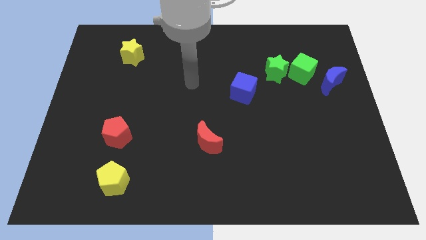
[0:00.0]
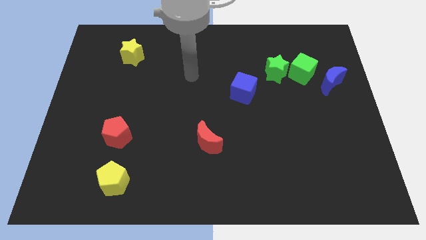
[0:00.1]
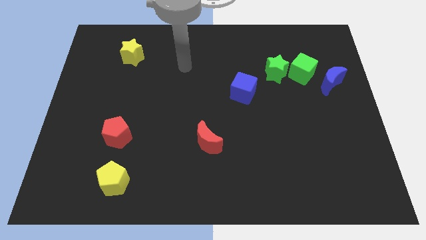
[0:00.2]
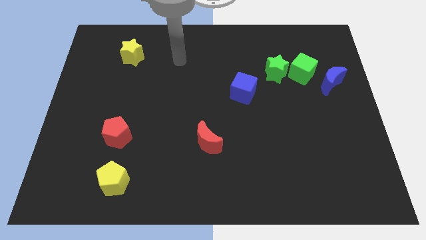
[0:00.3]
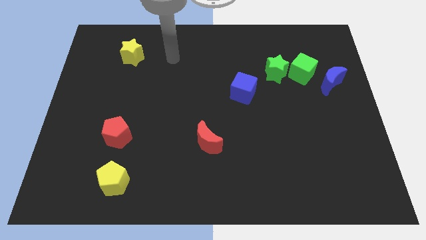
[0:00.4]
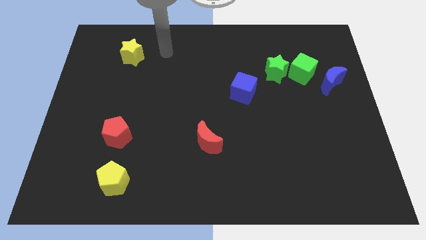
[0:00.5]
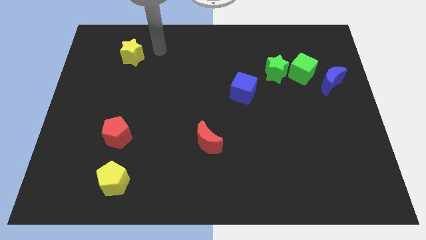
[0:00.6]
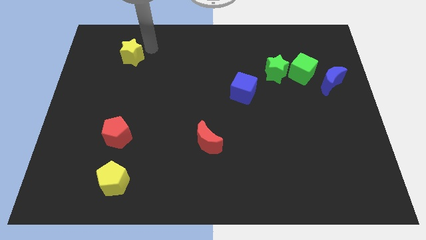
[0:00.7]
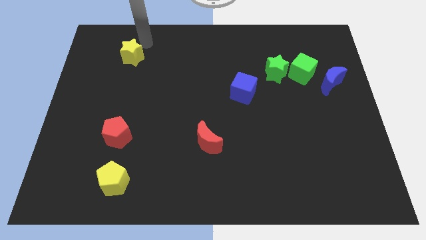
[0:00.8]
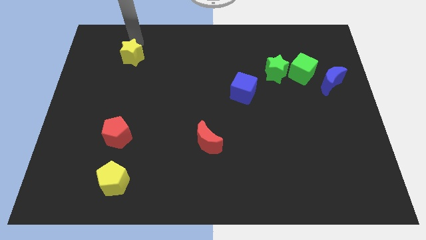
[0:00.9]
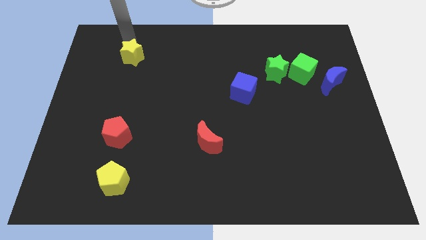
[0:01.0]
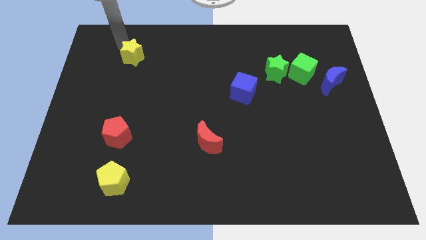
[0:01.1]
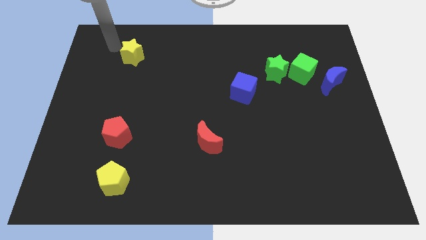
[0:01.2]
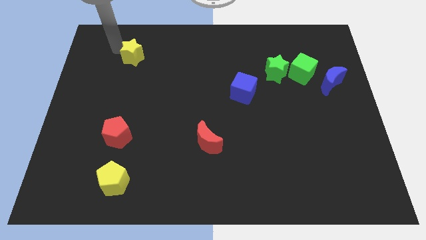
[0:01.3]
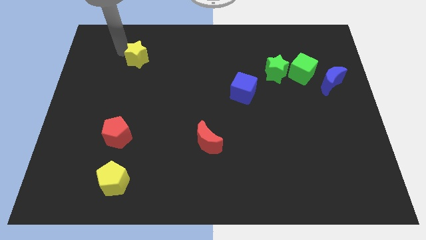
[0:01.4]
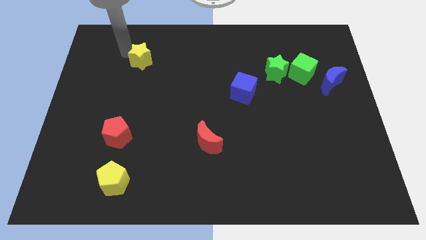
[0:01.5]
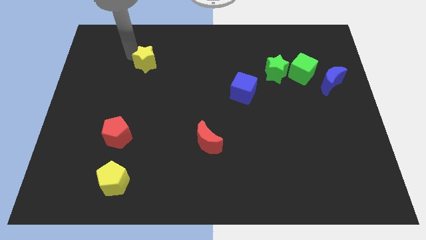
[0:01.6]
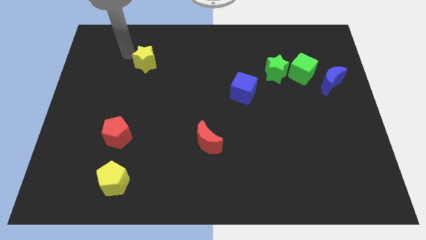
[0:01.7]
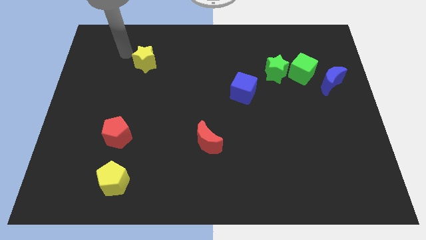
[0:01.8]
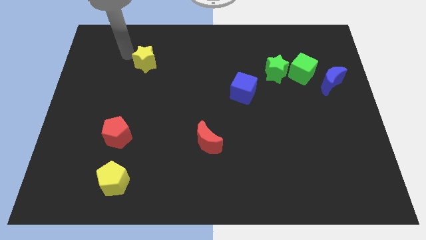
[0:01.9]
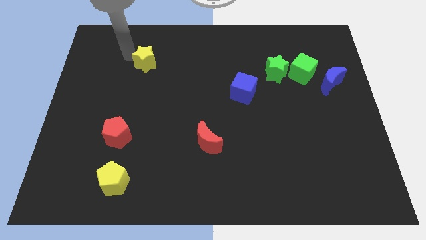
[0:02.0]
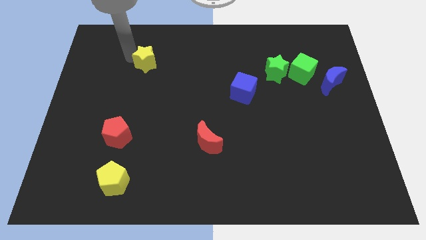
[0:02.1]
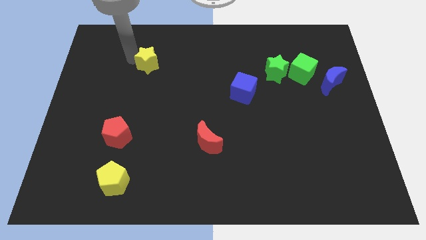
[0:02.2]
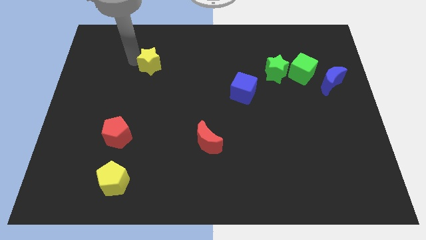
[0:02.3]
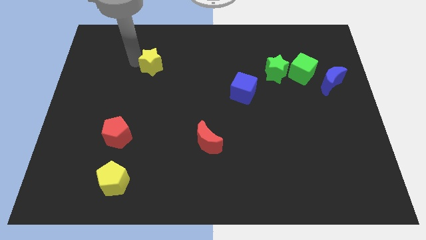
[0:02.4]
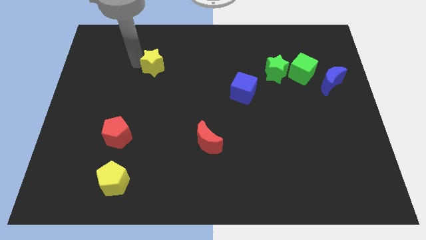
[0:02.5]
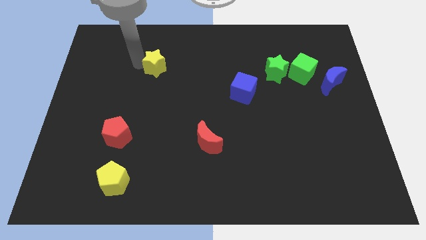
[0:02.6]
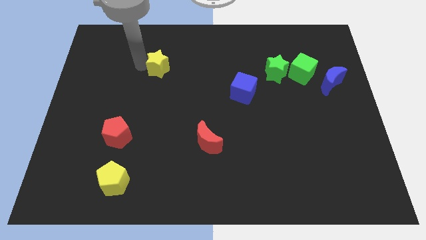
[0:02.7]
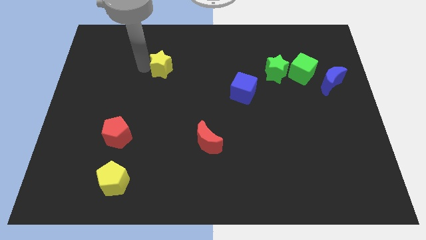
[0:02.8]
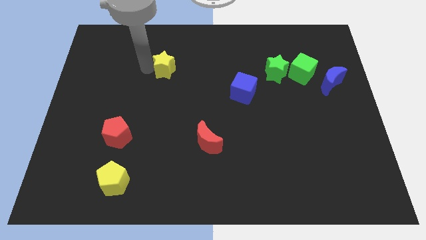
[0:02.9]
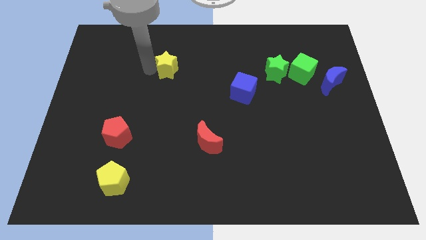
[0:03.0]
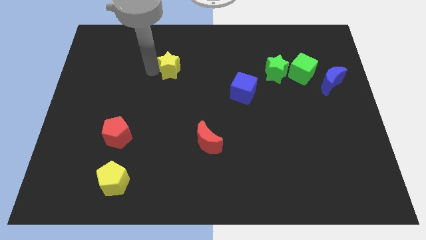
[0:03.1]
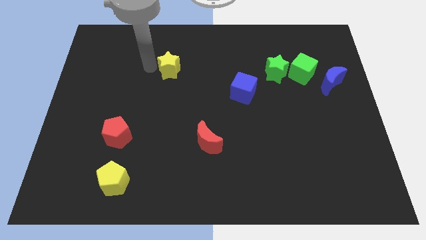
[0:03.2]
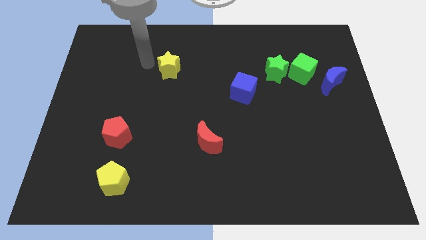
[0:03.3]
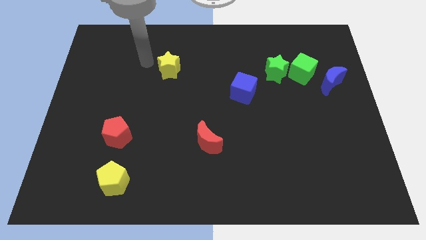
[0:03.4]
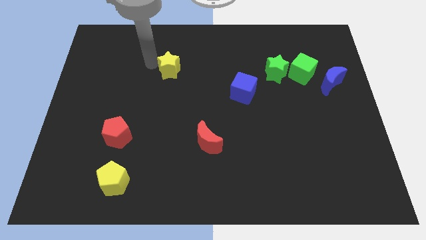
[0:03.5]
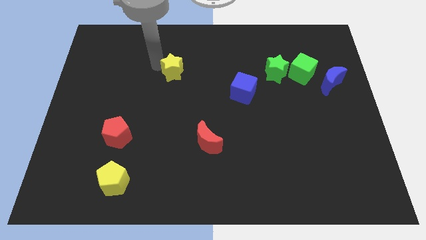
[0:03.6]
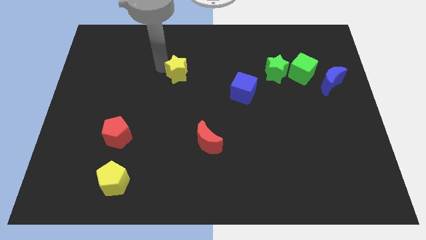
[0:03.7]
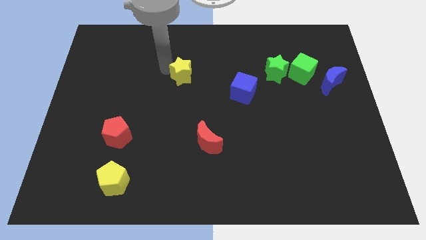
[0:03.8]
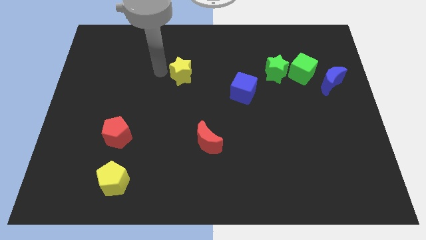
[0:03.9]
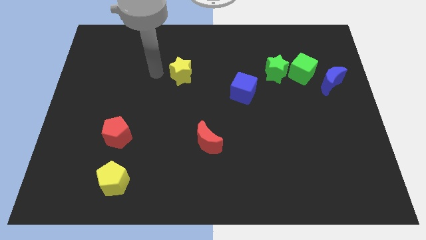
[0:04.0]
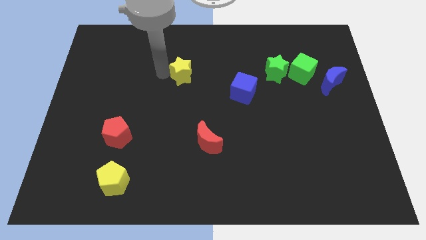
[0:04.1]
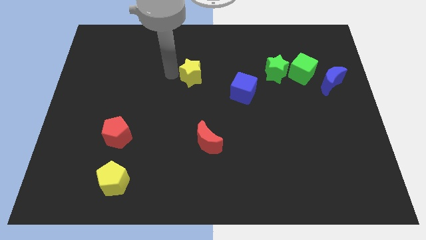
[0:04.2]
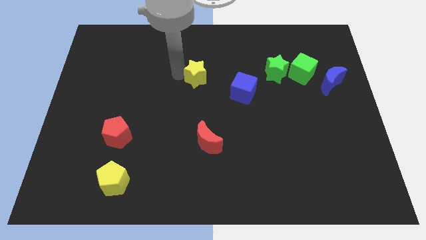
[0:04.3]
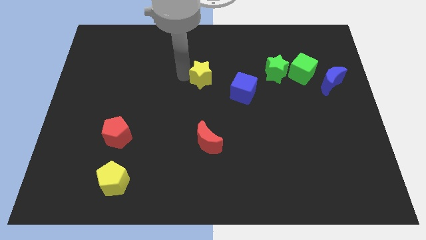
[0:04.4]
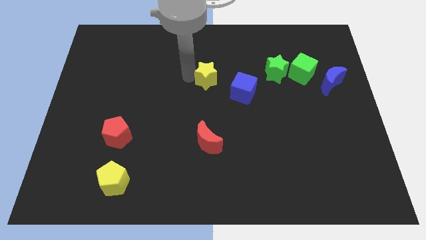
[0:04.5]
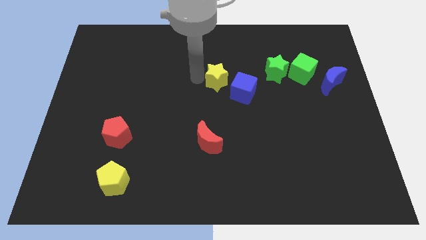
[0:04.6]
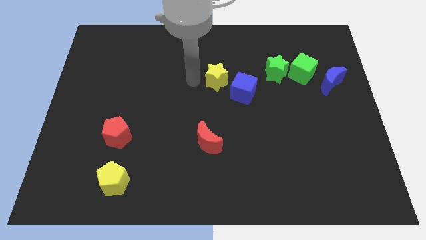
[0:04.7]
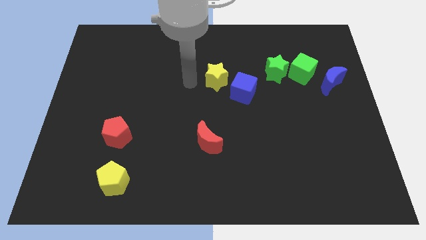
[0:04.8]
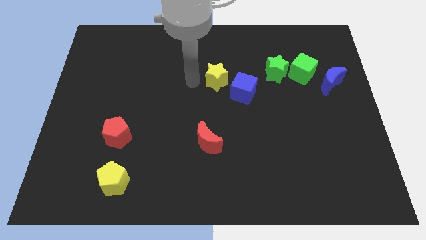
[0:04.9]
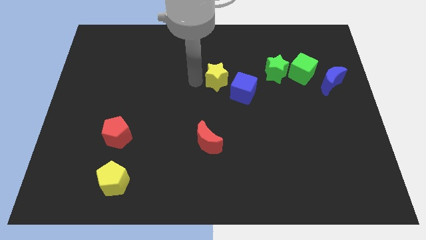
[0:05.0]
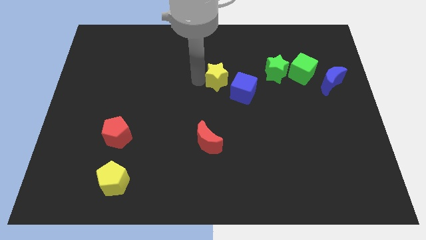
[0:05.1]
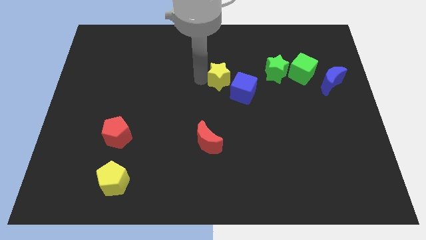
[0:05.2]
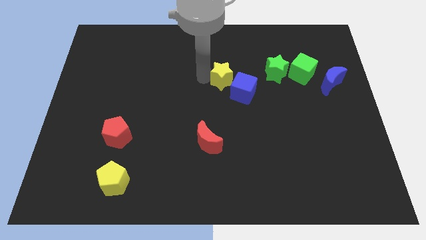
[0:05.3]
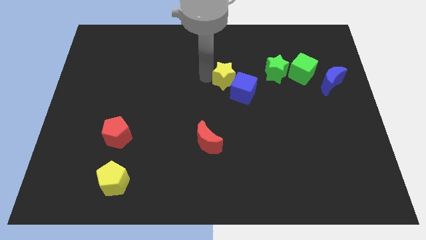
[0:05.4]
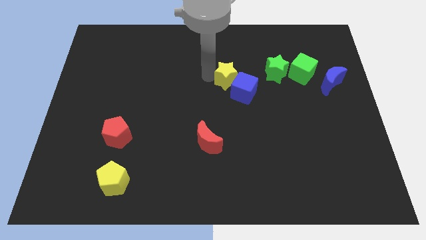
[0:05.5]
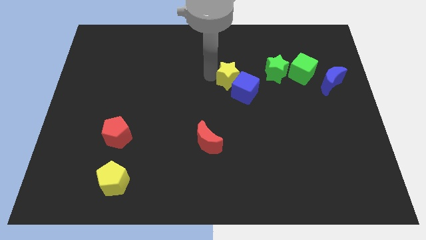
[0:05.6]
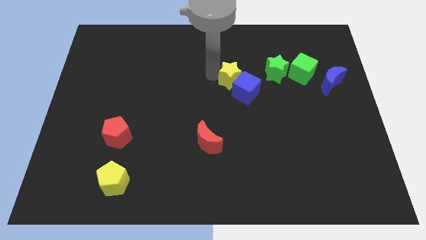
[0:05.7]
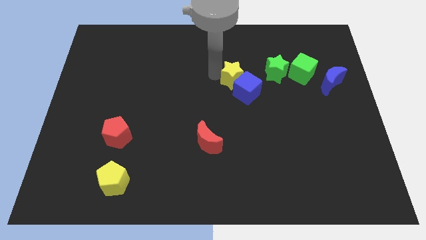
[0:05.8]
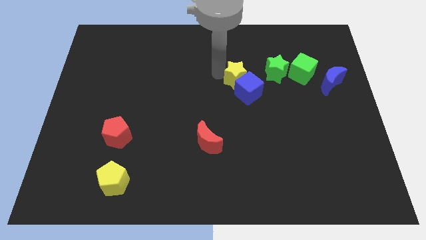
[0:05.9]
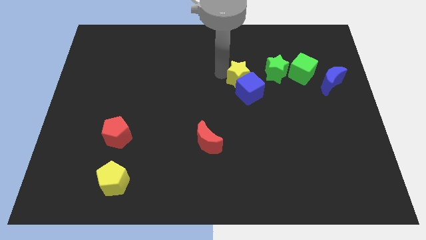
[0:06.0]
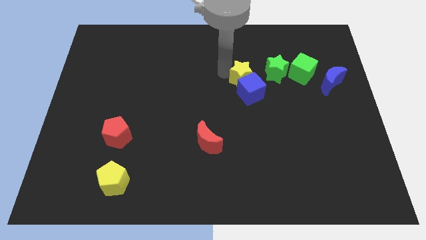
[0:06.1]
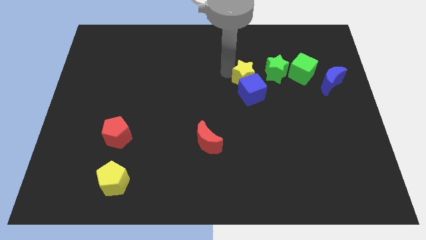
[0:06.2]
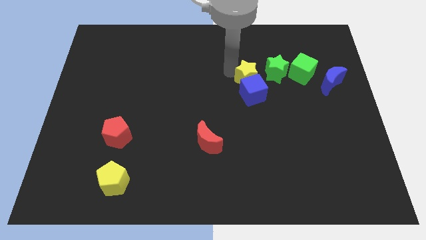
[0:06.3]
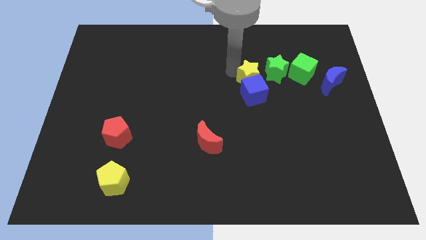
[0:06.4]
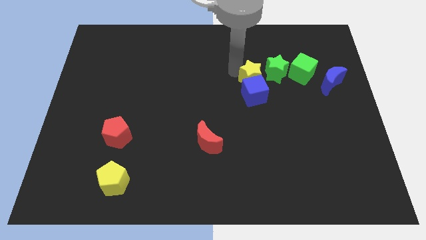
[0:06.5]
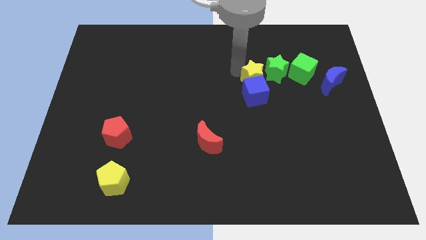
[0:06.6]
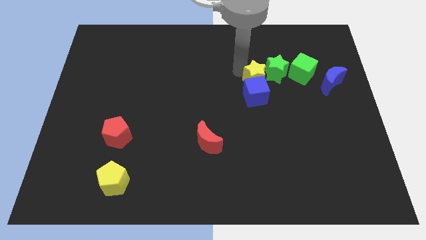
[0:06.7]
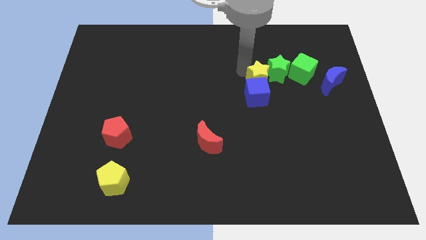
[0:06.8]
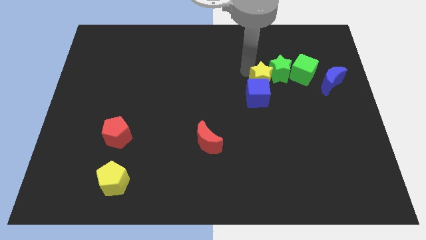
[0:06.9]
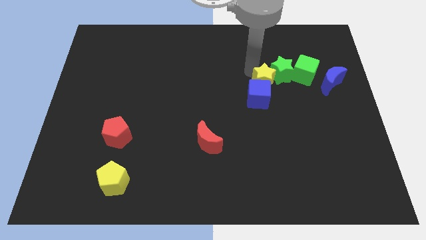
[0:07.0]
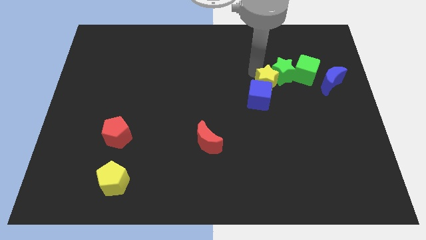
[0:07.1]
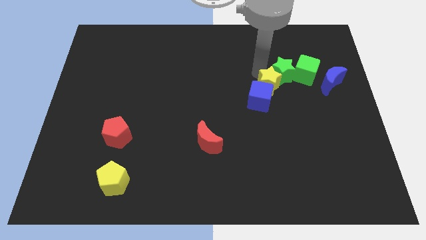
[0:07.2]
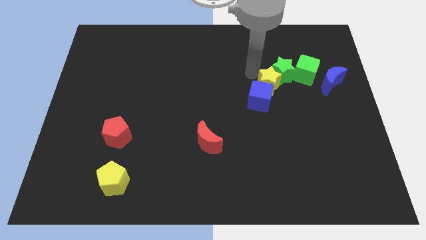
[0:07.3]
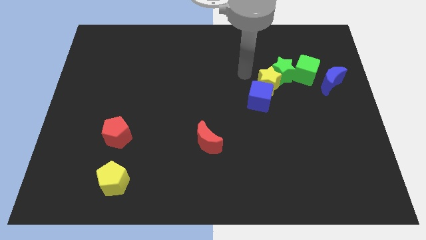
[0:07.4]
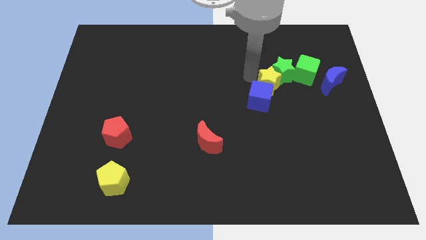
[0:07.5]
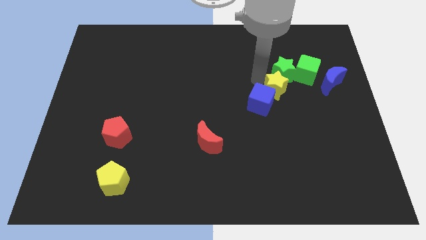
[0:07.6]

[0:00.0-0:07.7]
slide the yellow star to the right side of the blue cube
